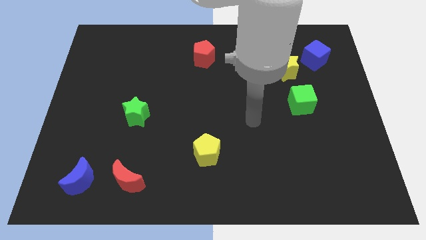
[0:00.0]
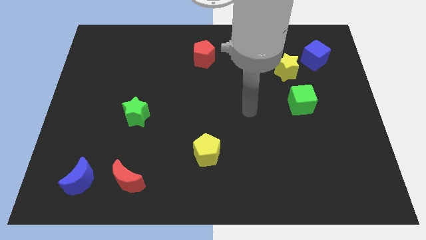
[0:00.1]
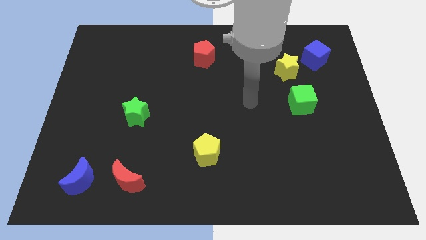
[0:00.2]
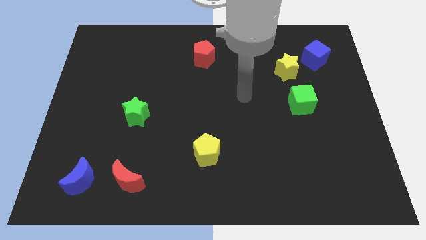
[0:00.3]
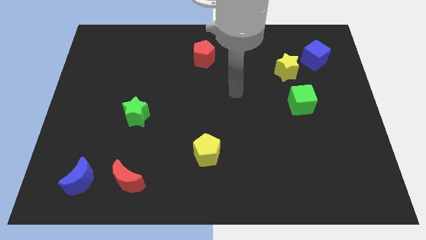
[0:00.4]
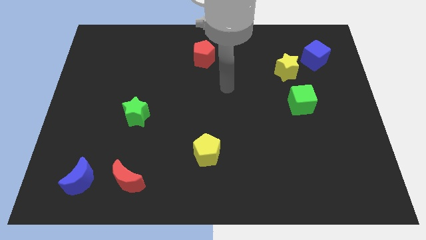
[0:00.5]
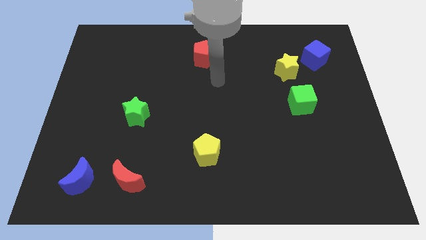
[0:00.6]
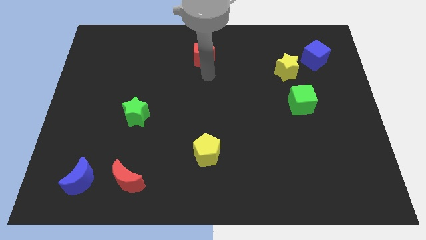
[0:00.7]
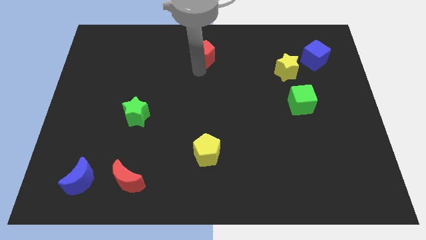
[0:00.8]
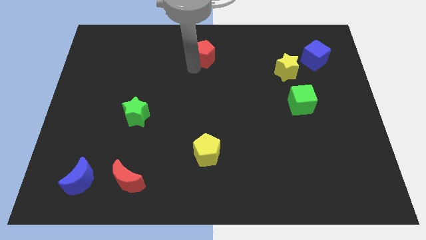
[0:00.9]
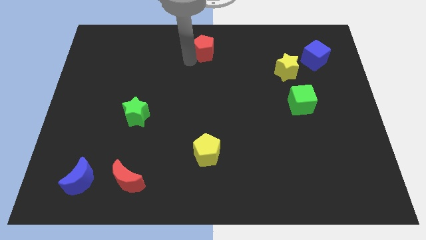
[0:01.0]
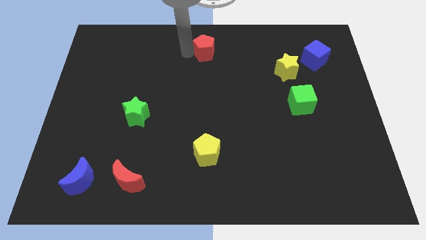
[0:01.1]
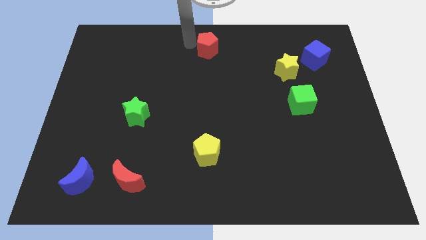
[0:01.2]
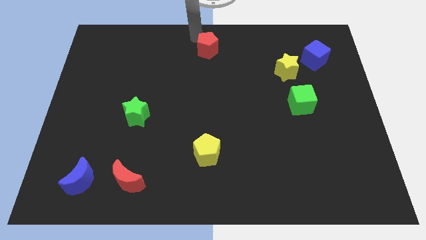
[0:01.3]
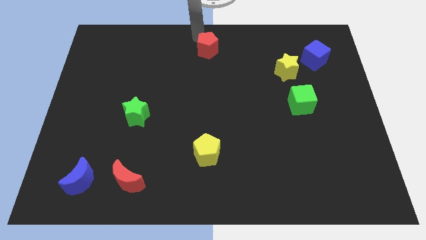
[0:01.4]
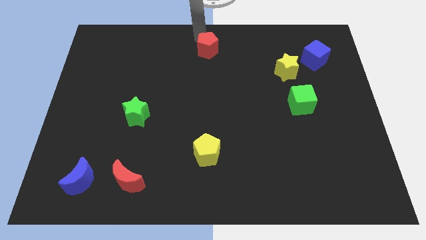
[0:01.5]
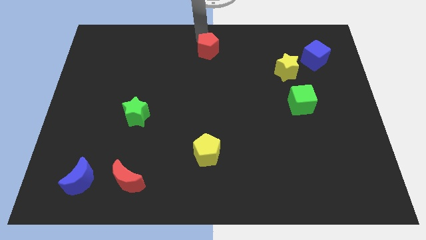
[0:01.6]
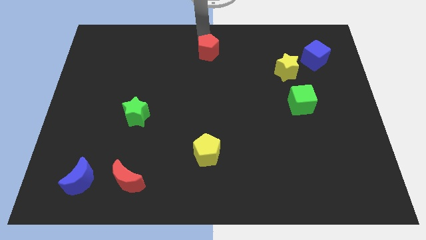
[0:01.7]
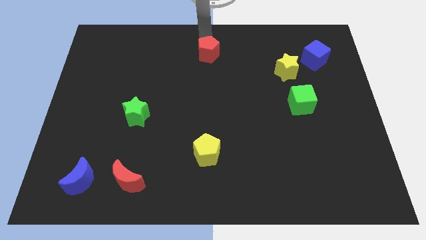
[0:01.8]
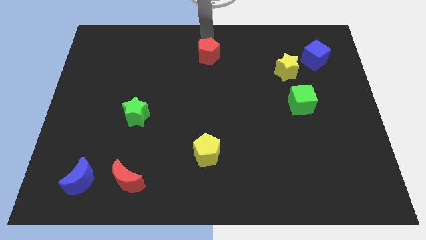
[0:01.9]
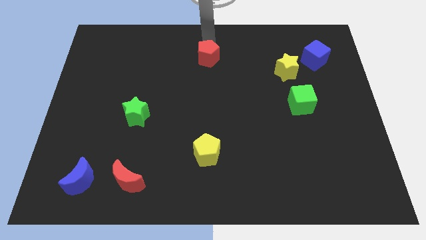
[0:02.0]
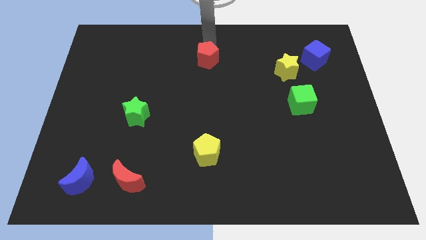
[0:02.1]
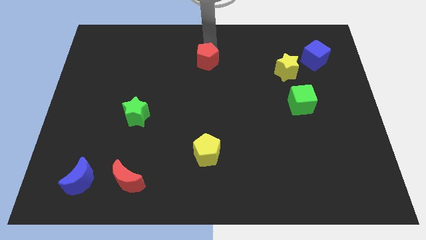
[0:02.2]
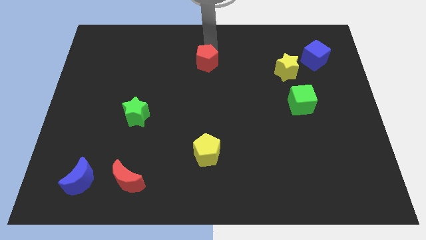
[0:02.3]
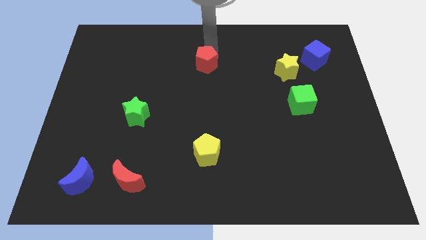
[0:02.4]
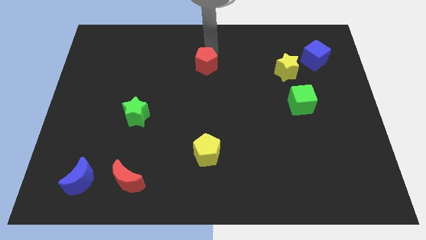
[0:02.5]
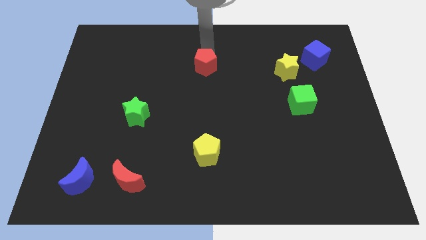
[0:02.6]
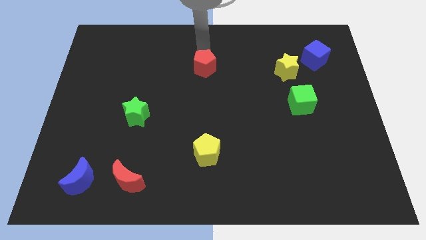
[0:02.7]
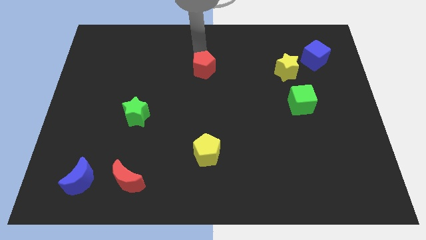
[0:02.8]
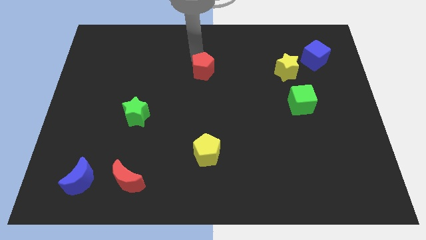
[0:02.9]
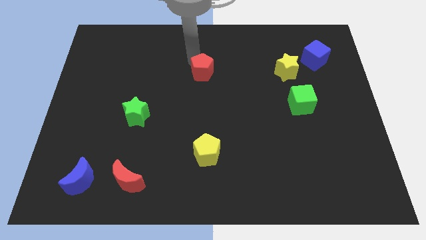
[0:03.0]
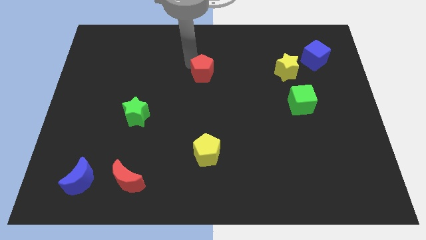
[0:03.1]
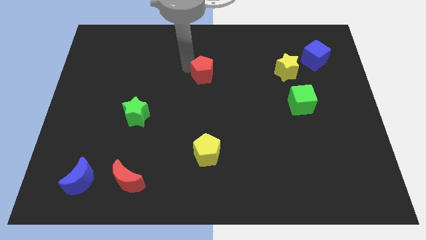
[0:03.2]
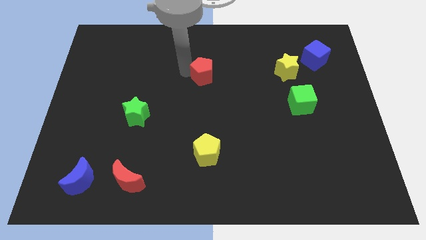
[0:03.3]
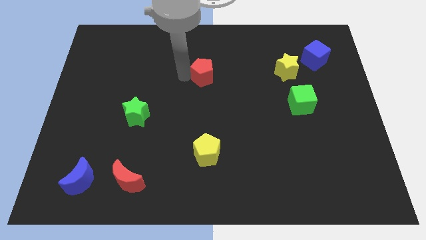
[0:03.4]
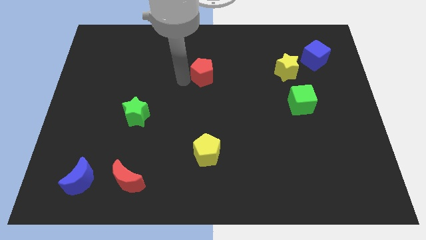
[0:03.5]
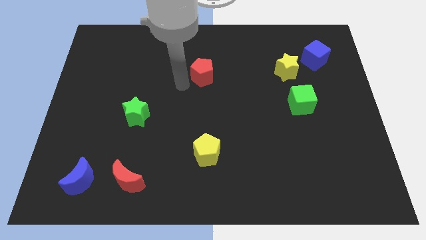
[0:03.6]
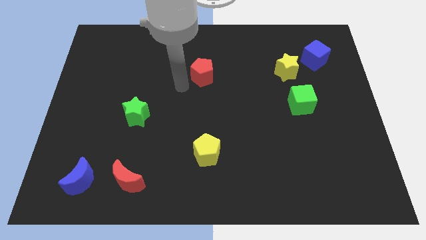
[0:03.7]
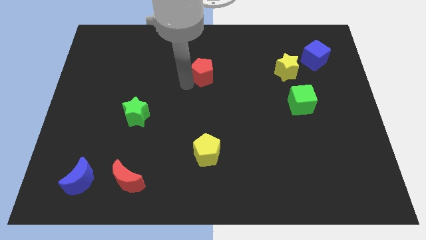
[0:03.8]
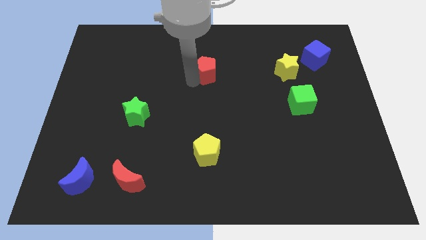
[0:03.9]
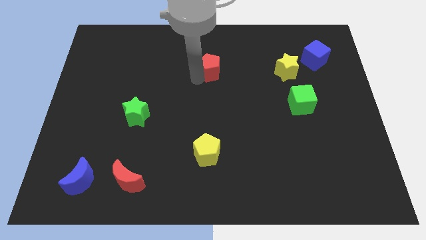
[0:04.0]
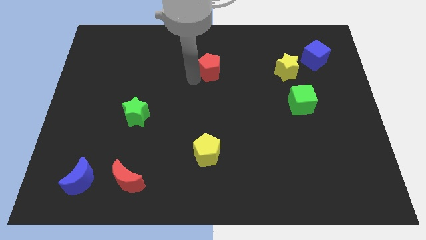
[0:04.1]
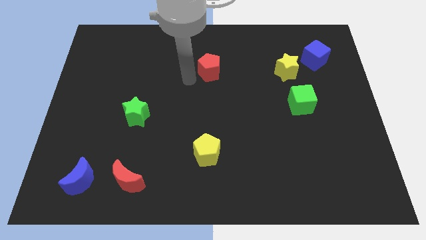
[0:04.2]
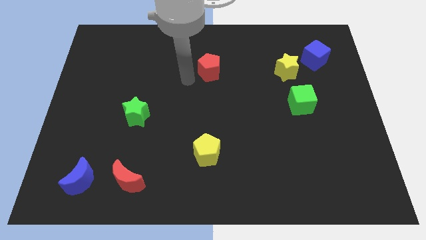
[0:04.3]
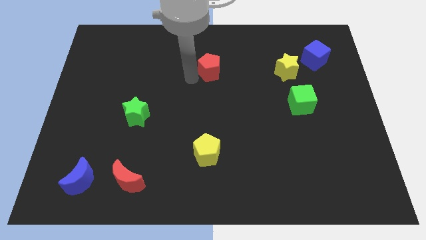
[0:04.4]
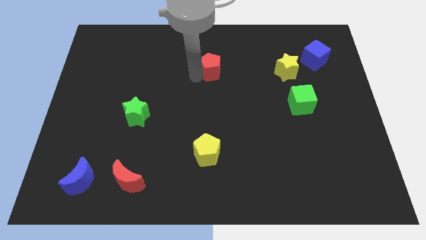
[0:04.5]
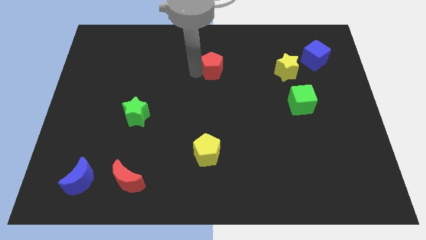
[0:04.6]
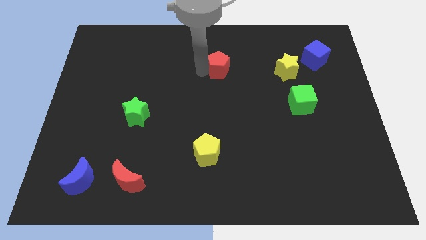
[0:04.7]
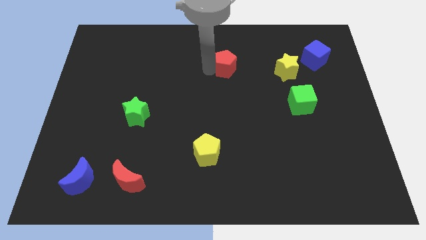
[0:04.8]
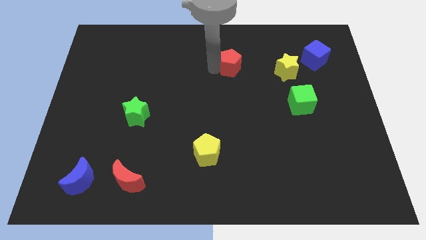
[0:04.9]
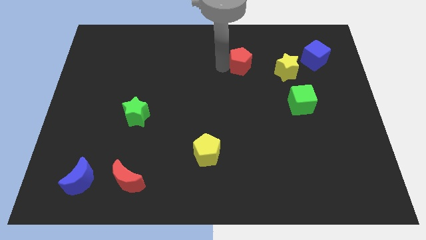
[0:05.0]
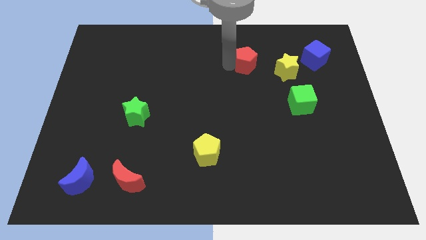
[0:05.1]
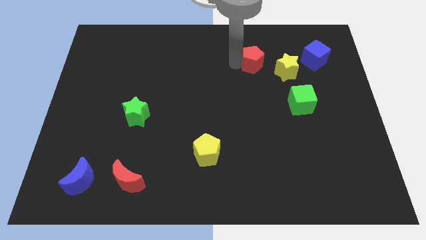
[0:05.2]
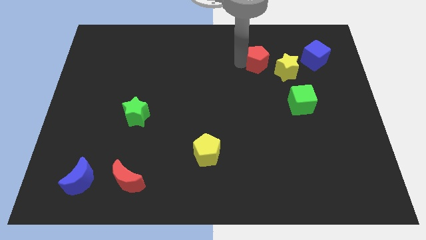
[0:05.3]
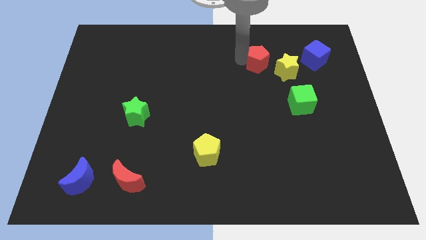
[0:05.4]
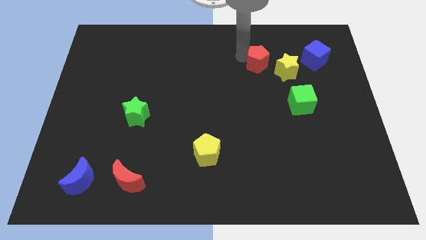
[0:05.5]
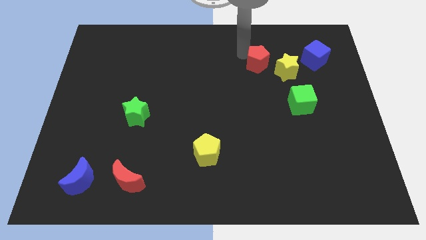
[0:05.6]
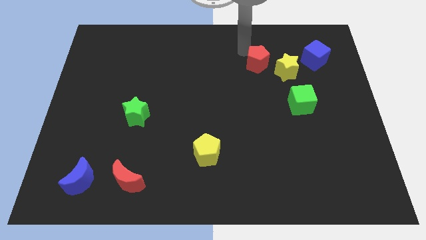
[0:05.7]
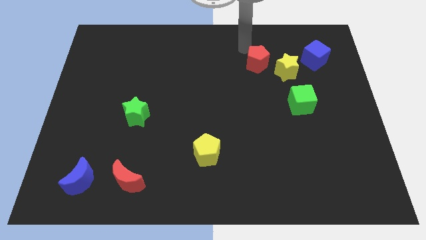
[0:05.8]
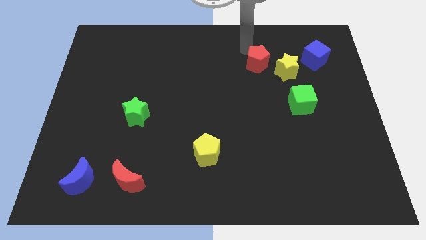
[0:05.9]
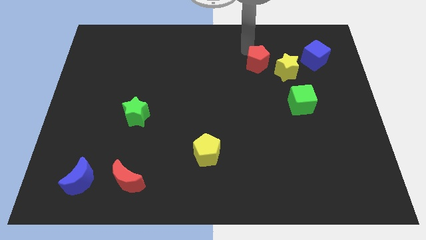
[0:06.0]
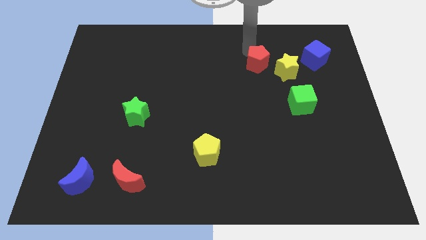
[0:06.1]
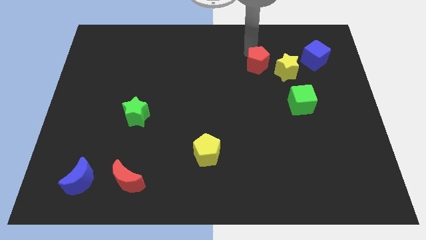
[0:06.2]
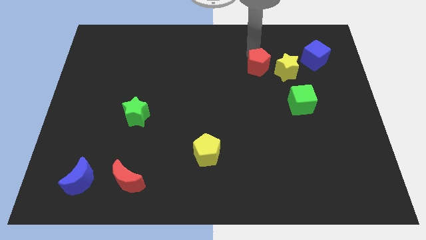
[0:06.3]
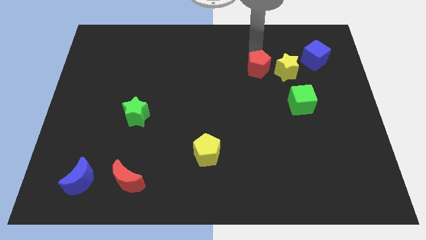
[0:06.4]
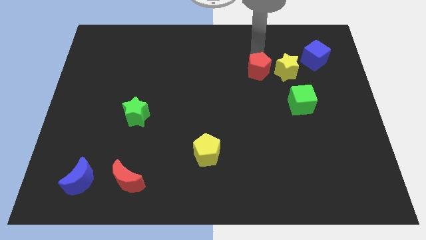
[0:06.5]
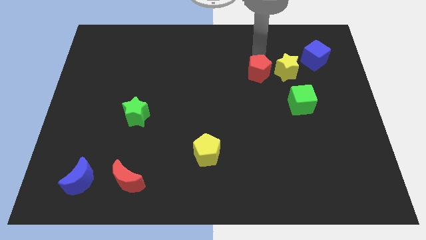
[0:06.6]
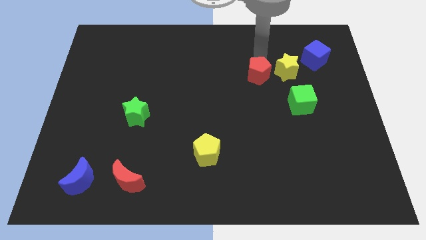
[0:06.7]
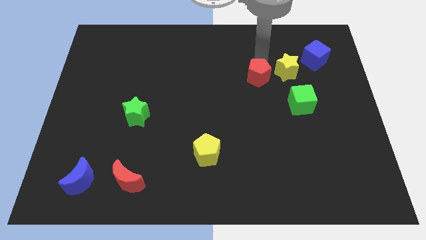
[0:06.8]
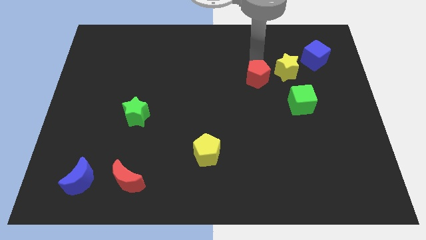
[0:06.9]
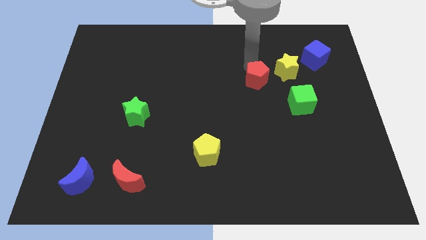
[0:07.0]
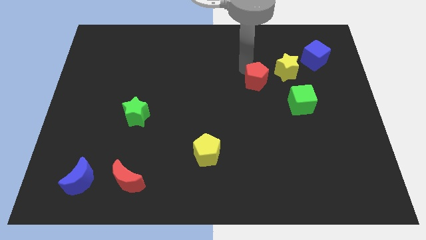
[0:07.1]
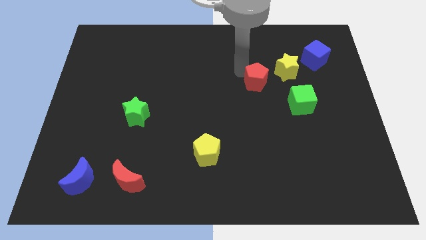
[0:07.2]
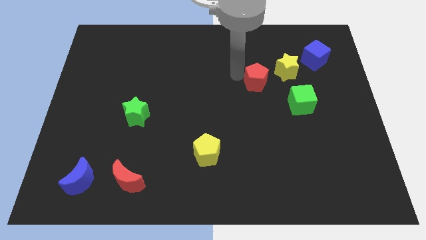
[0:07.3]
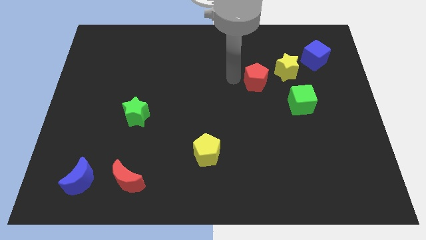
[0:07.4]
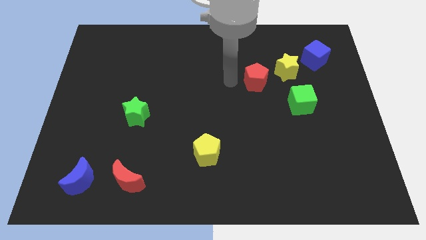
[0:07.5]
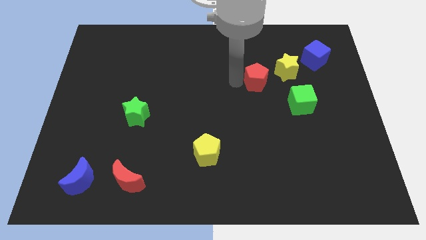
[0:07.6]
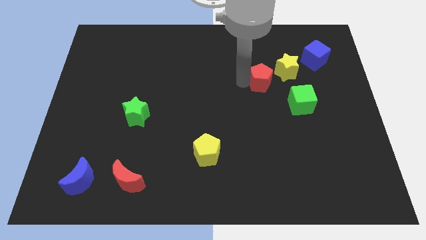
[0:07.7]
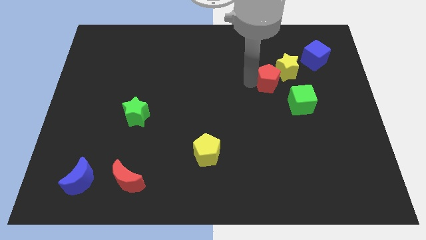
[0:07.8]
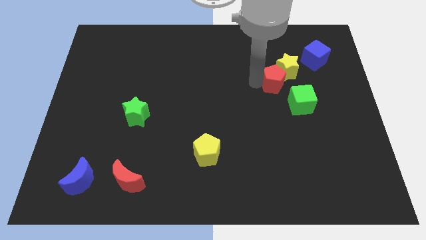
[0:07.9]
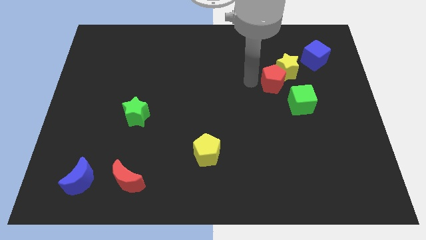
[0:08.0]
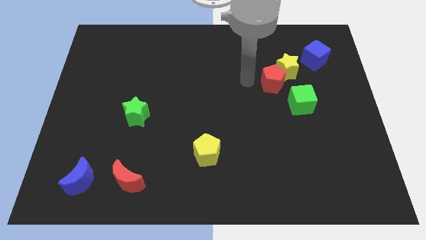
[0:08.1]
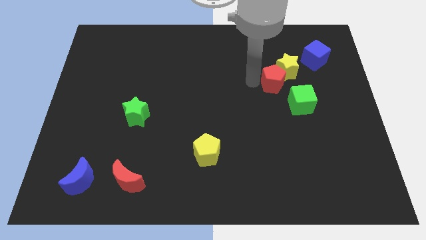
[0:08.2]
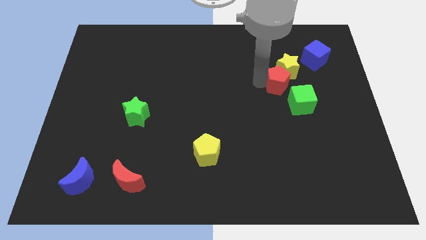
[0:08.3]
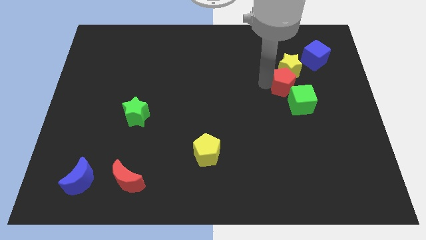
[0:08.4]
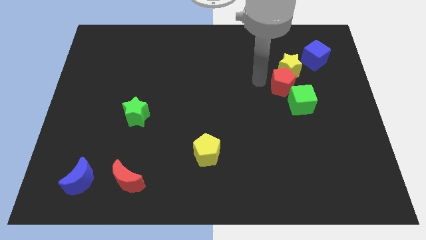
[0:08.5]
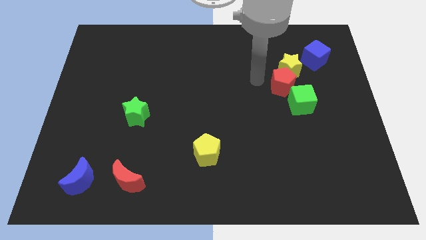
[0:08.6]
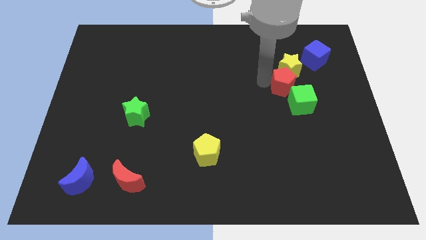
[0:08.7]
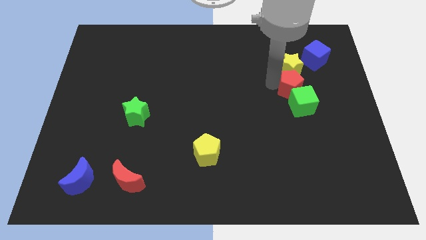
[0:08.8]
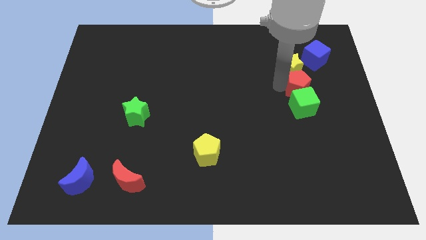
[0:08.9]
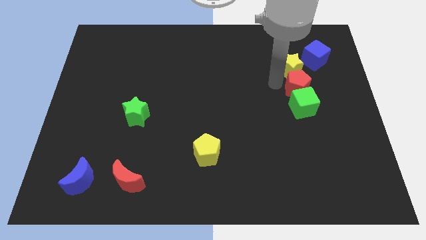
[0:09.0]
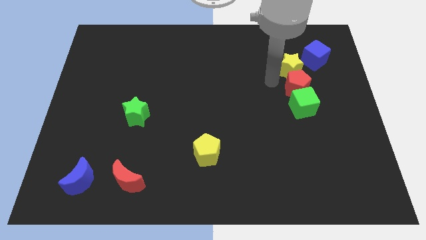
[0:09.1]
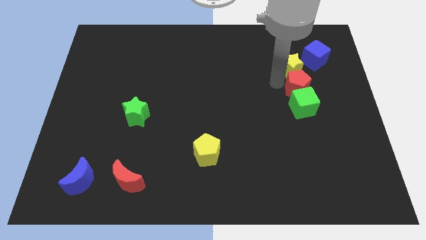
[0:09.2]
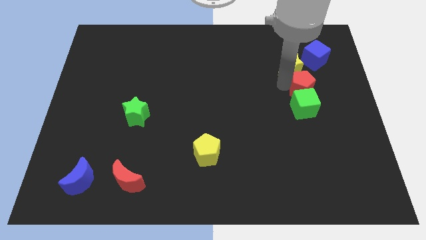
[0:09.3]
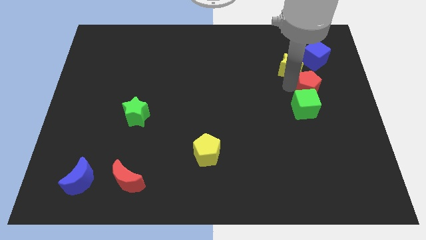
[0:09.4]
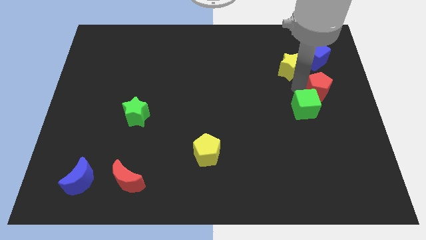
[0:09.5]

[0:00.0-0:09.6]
slide the red pentagon to the right side
